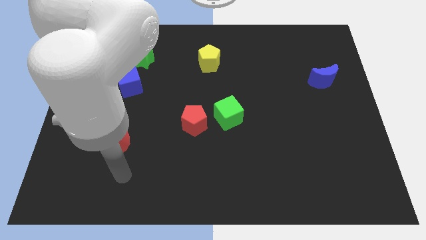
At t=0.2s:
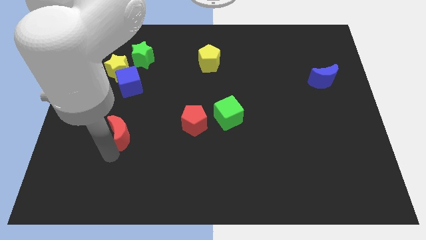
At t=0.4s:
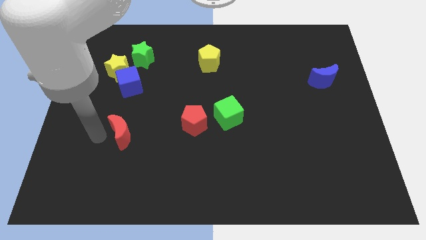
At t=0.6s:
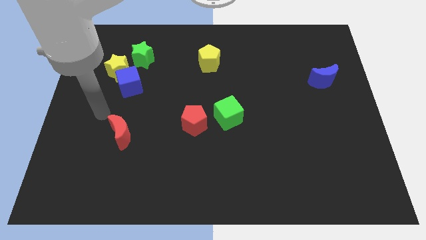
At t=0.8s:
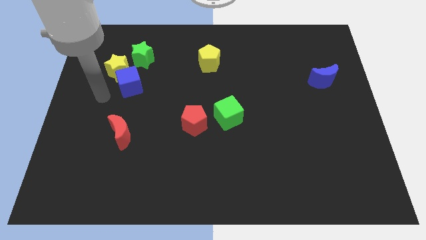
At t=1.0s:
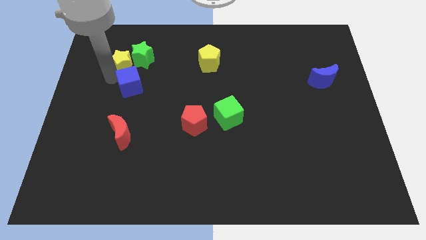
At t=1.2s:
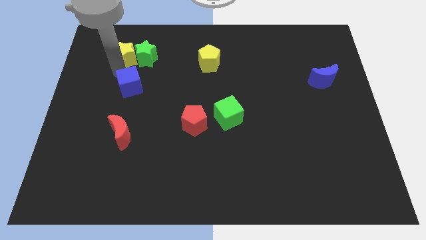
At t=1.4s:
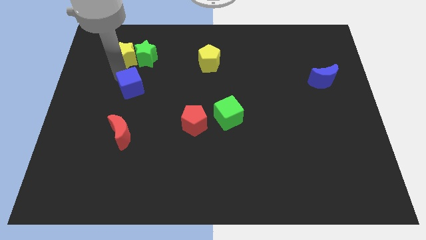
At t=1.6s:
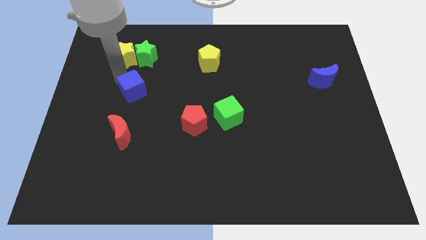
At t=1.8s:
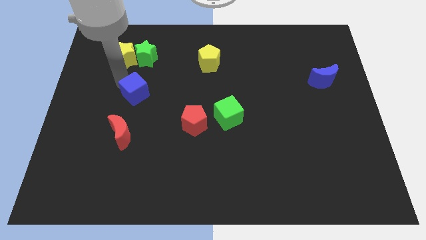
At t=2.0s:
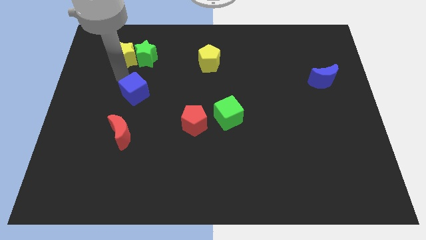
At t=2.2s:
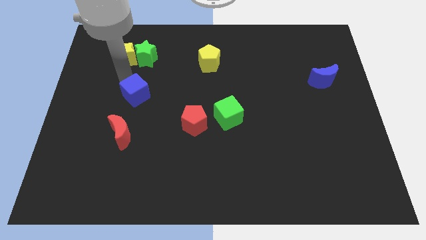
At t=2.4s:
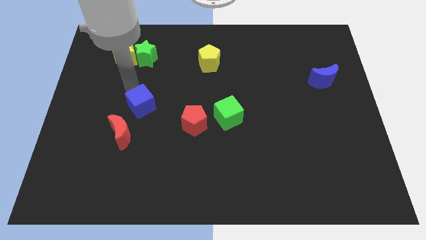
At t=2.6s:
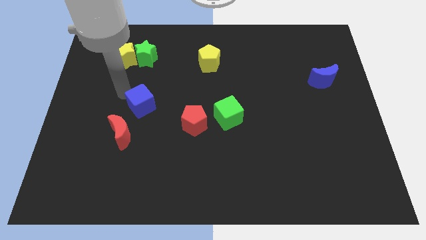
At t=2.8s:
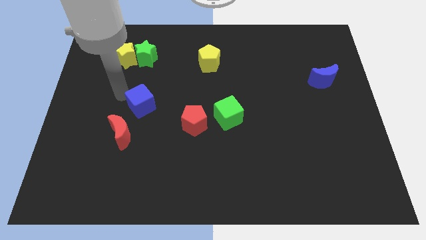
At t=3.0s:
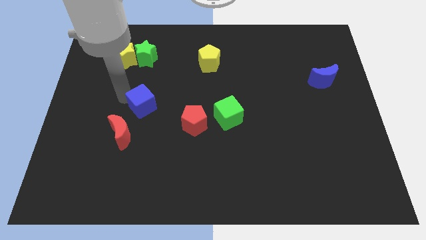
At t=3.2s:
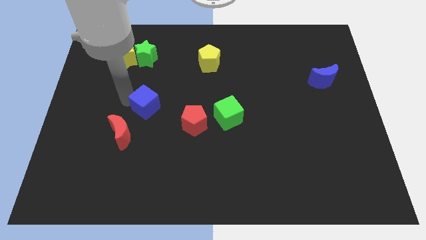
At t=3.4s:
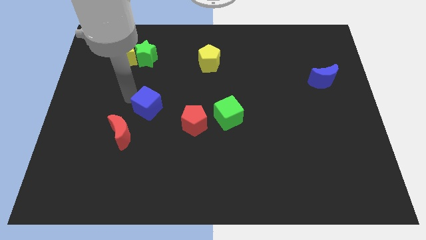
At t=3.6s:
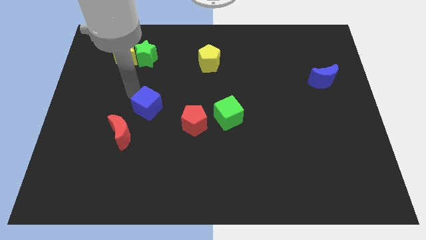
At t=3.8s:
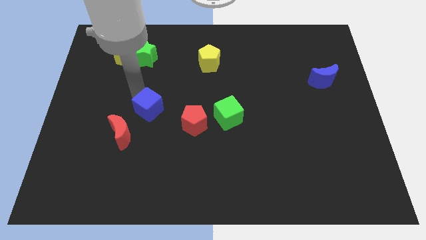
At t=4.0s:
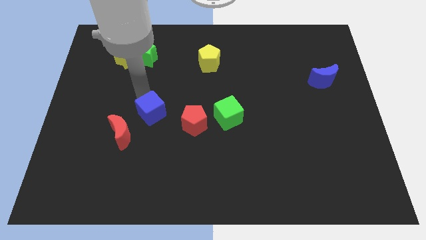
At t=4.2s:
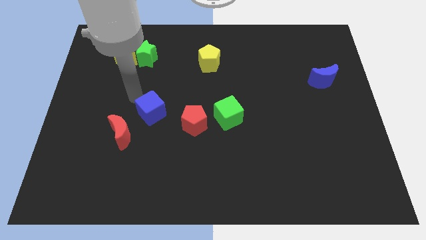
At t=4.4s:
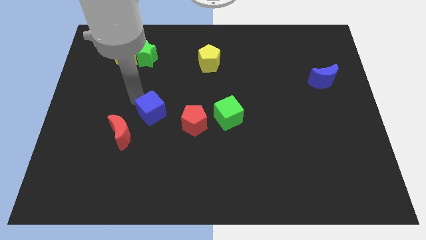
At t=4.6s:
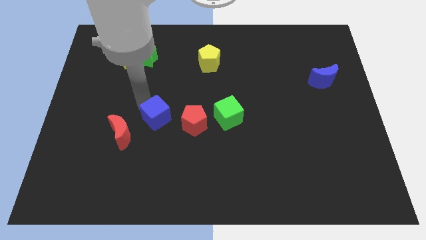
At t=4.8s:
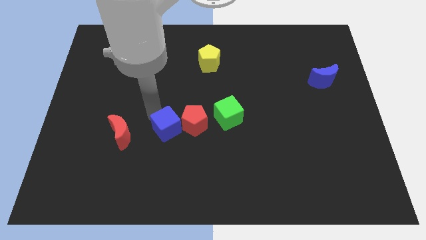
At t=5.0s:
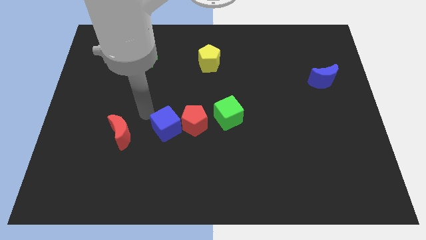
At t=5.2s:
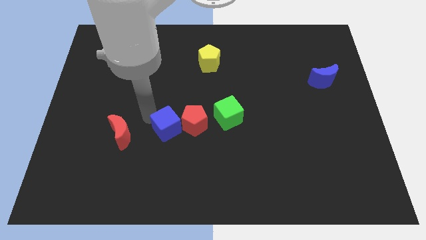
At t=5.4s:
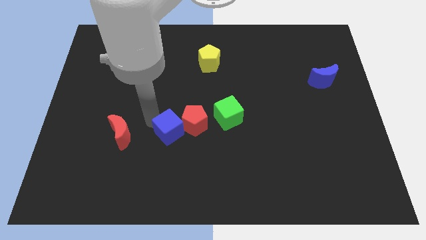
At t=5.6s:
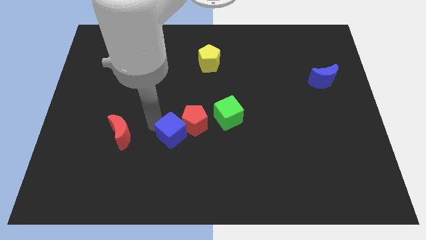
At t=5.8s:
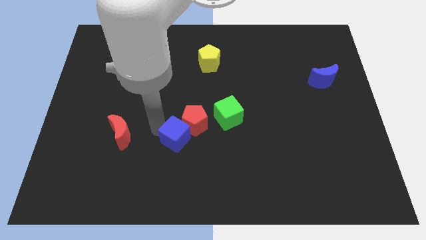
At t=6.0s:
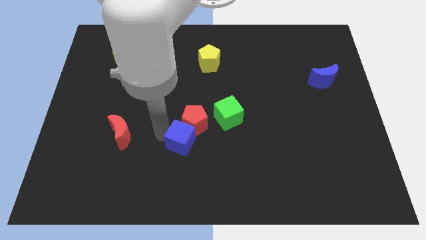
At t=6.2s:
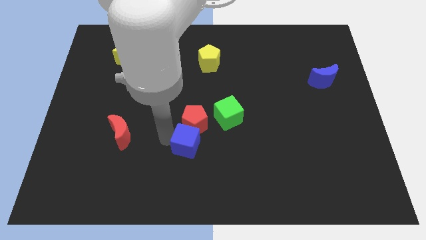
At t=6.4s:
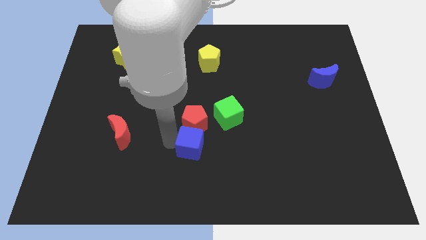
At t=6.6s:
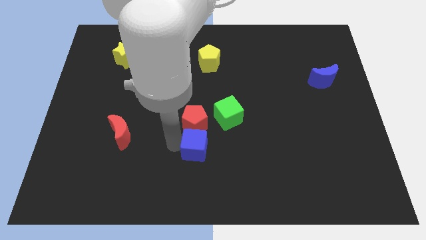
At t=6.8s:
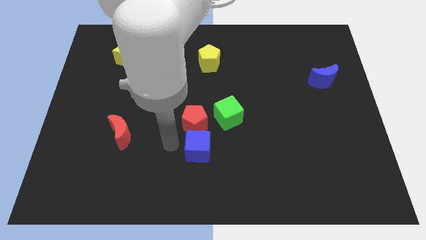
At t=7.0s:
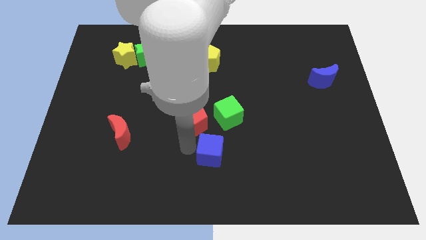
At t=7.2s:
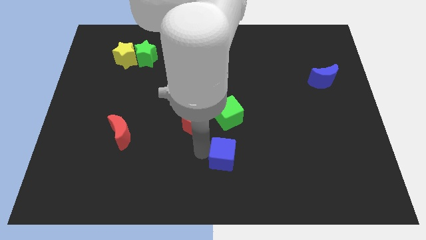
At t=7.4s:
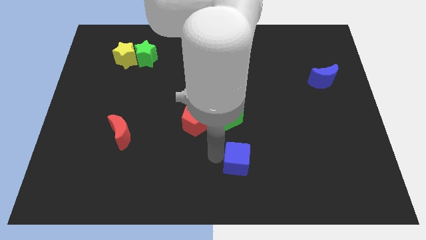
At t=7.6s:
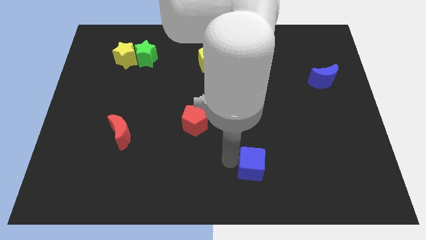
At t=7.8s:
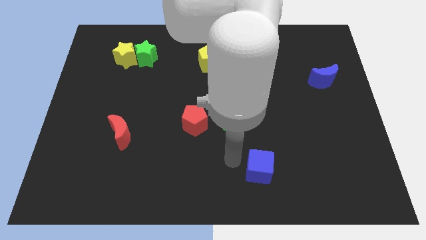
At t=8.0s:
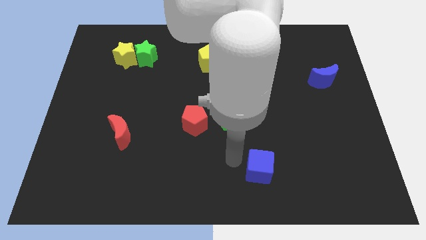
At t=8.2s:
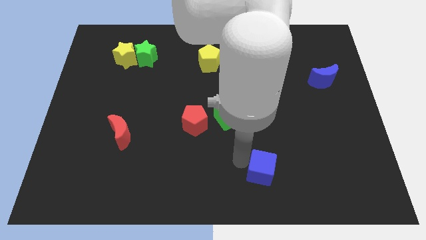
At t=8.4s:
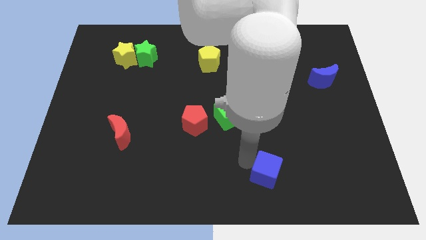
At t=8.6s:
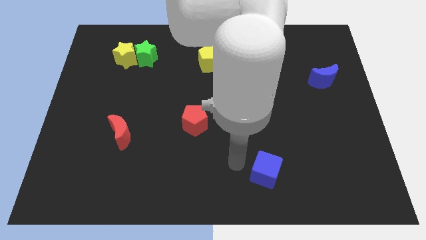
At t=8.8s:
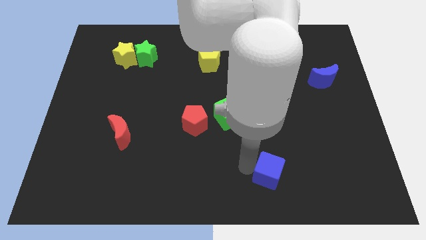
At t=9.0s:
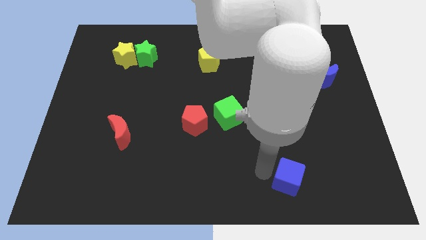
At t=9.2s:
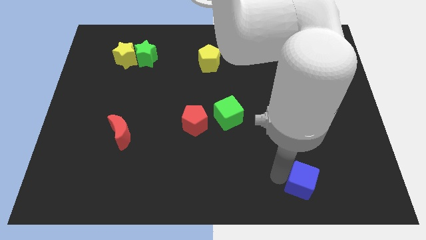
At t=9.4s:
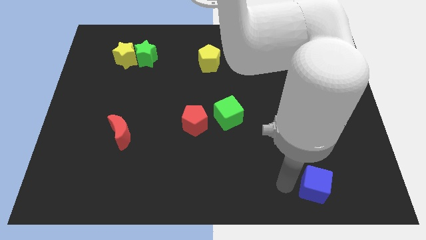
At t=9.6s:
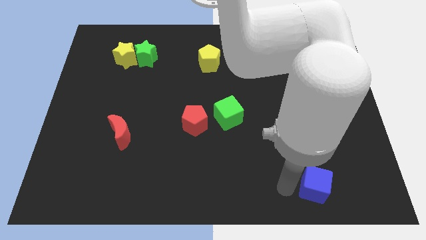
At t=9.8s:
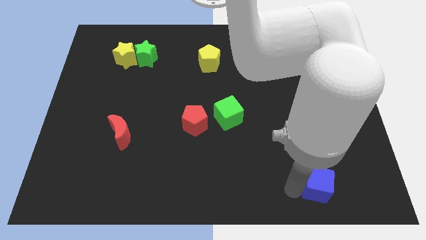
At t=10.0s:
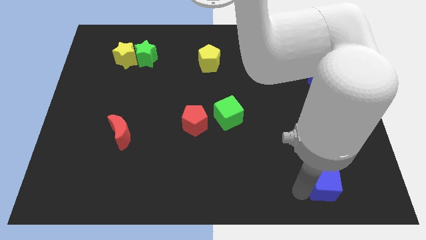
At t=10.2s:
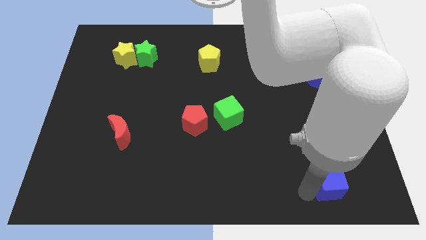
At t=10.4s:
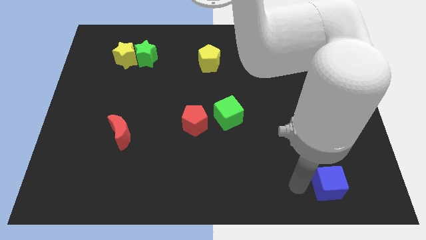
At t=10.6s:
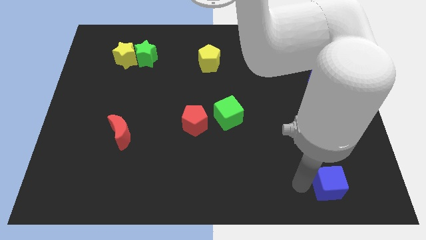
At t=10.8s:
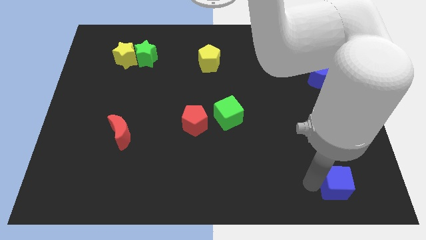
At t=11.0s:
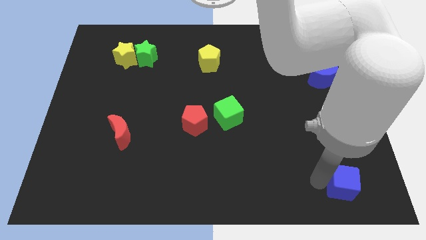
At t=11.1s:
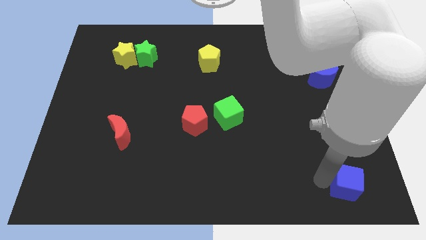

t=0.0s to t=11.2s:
put the blue cube to the bottom right corner
